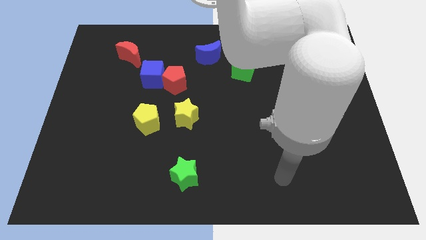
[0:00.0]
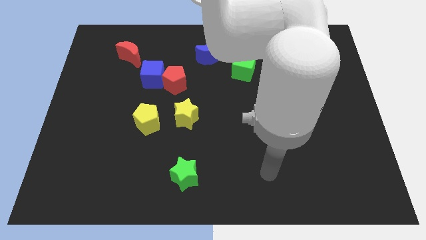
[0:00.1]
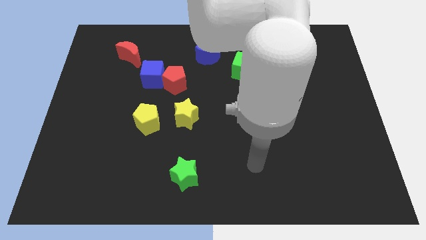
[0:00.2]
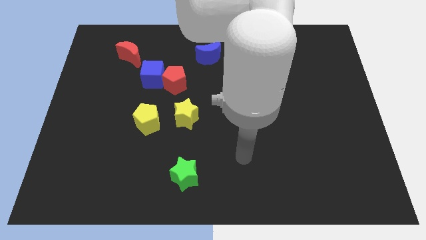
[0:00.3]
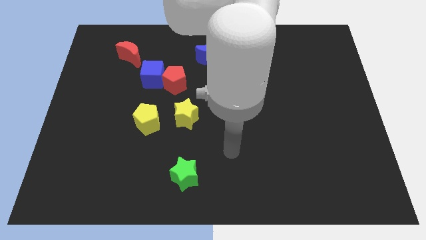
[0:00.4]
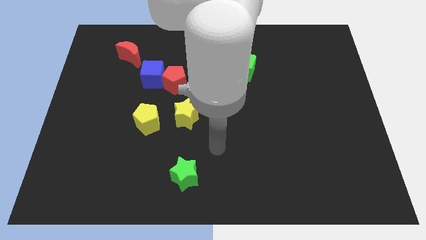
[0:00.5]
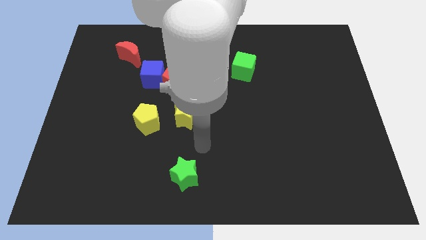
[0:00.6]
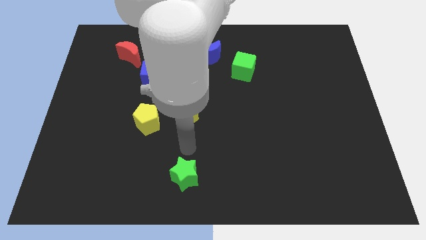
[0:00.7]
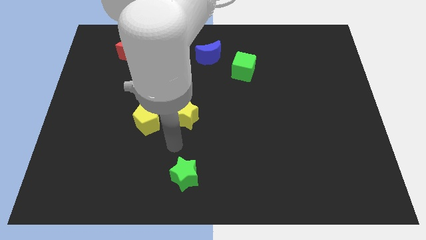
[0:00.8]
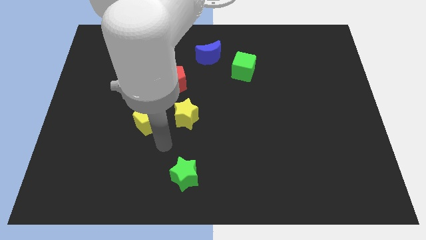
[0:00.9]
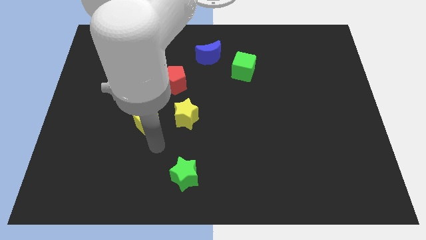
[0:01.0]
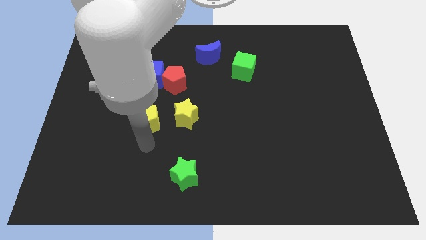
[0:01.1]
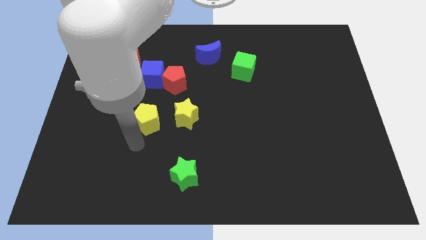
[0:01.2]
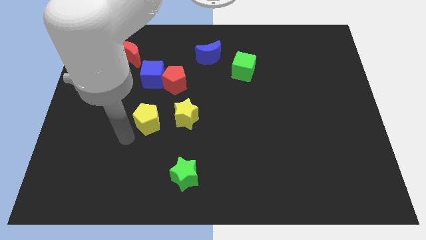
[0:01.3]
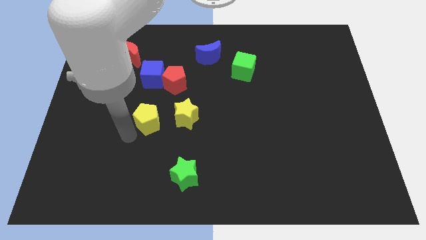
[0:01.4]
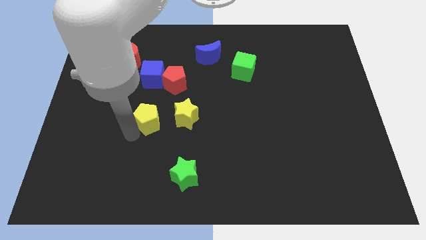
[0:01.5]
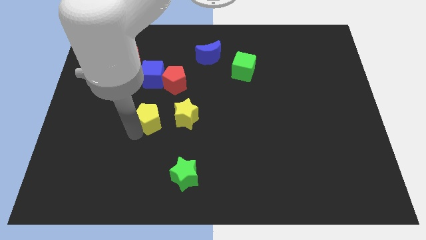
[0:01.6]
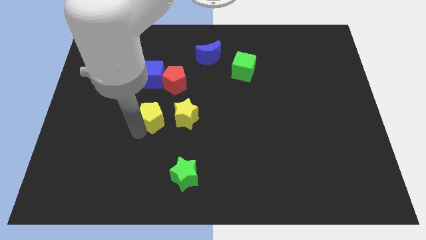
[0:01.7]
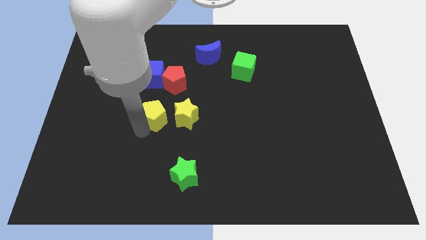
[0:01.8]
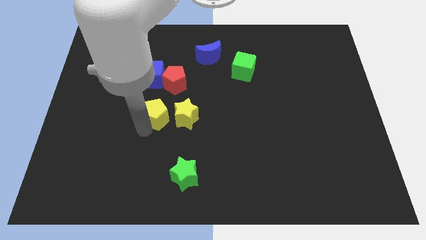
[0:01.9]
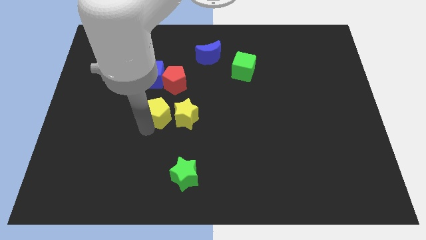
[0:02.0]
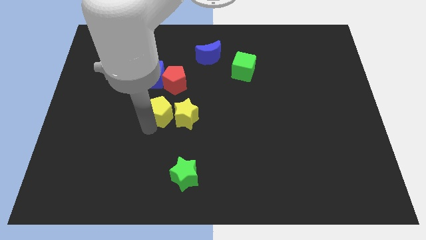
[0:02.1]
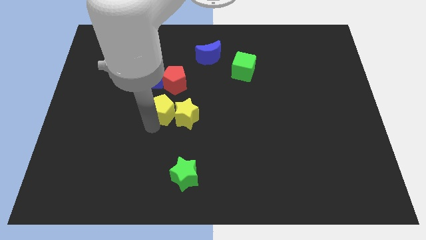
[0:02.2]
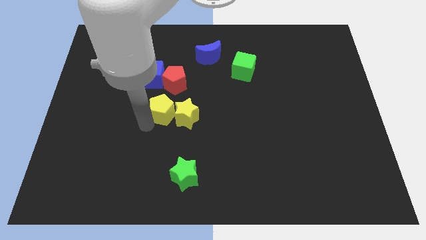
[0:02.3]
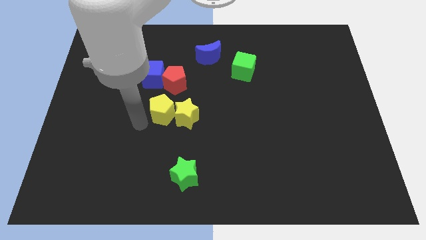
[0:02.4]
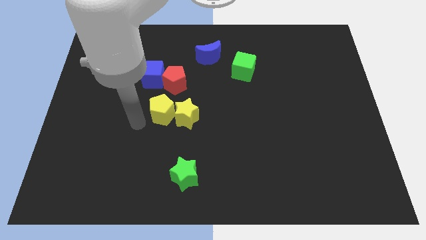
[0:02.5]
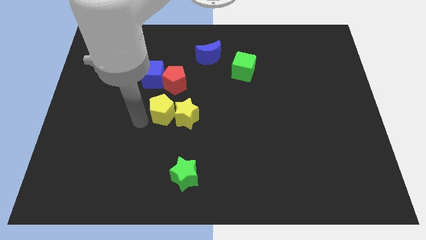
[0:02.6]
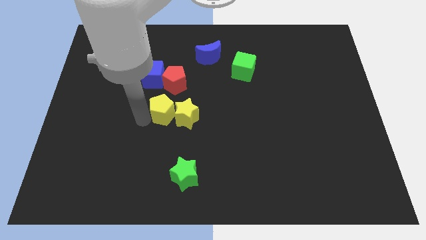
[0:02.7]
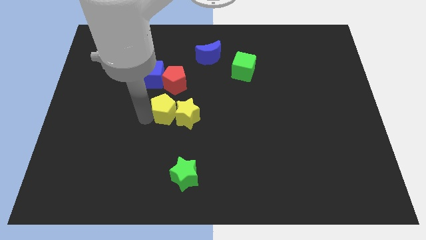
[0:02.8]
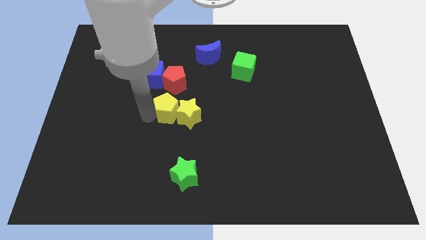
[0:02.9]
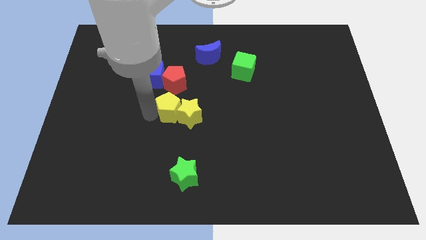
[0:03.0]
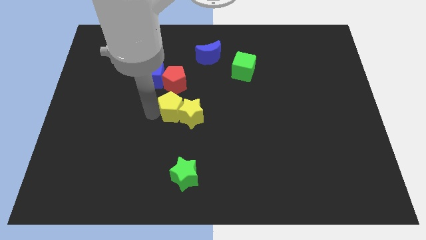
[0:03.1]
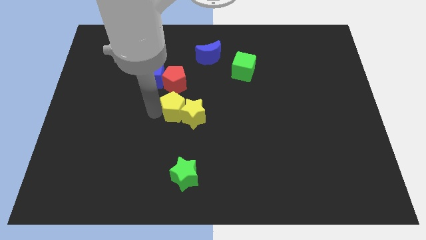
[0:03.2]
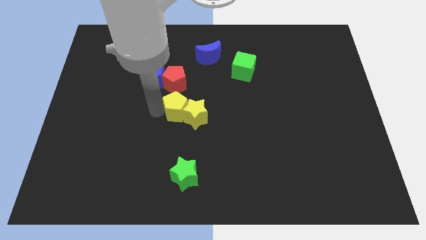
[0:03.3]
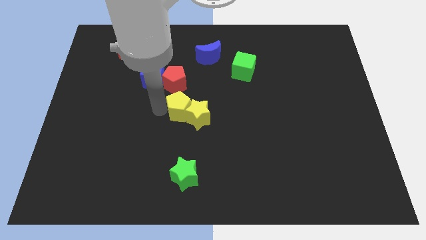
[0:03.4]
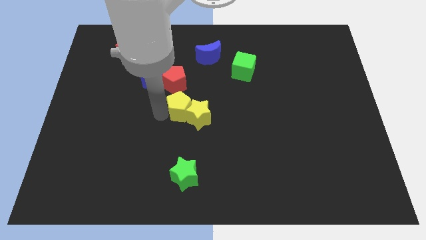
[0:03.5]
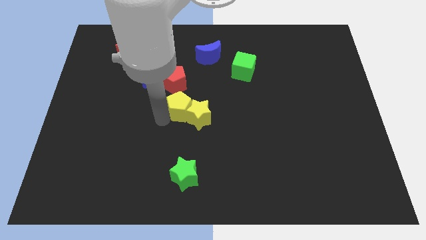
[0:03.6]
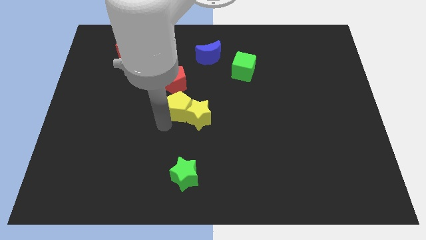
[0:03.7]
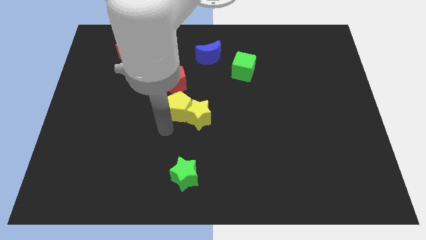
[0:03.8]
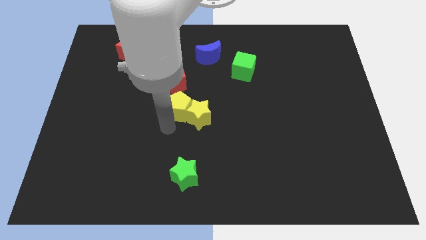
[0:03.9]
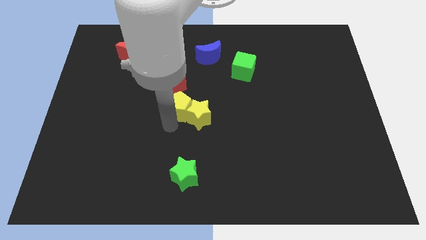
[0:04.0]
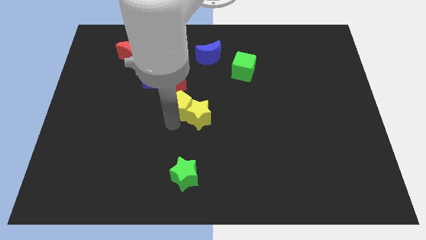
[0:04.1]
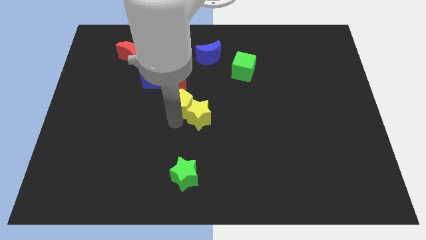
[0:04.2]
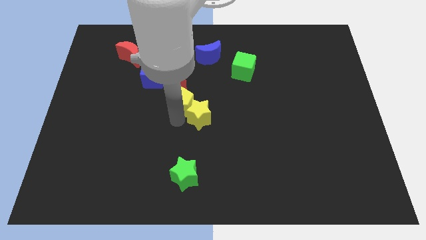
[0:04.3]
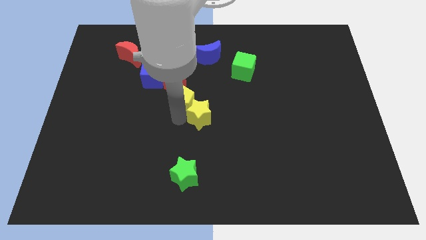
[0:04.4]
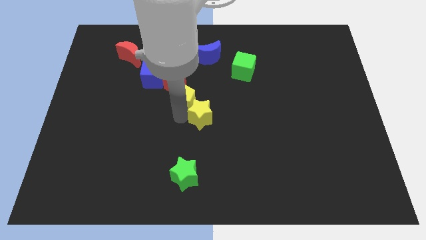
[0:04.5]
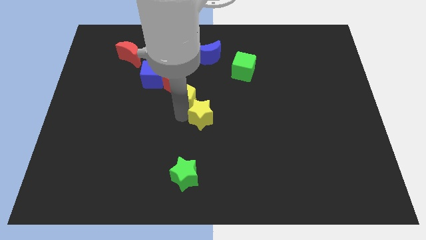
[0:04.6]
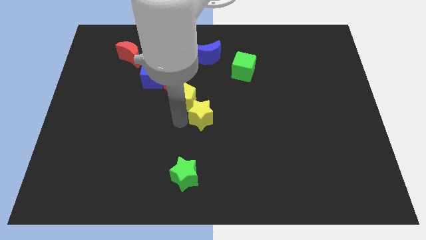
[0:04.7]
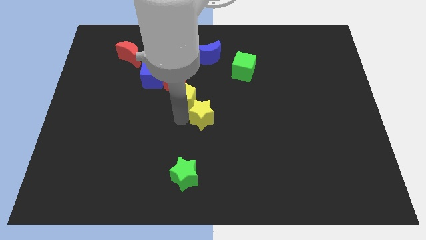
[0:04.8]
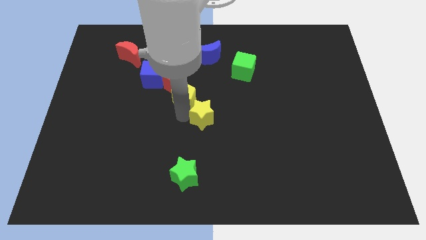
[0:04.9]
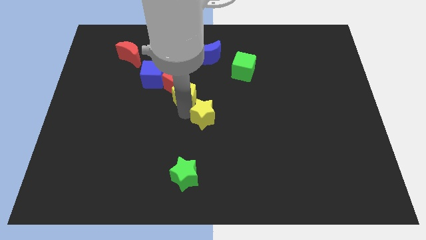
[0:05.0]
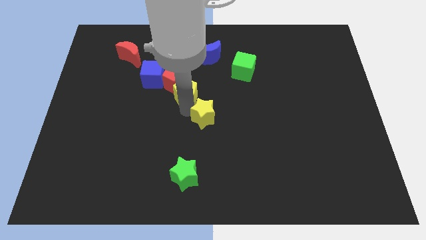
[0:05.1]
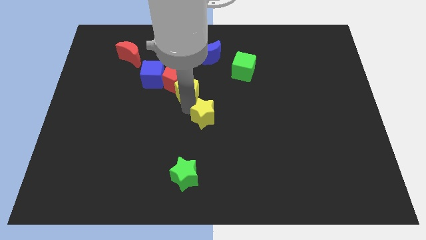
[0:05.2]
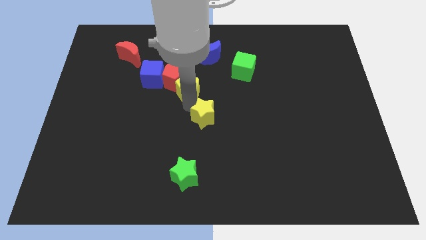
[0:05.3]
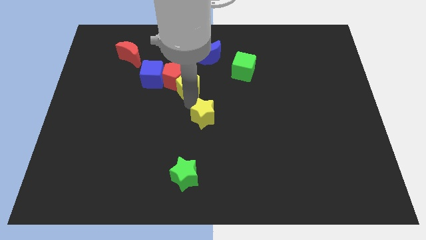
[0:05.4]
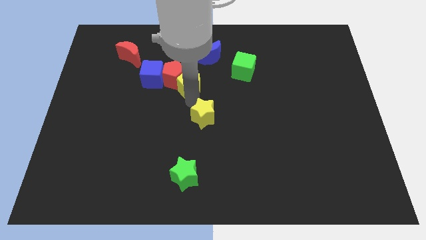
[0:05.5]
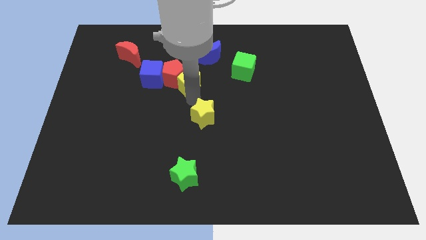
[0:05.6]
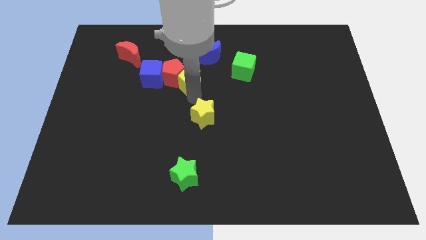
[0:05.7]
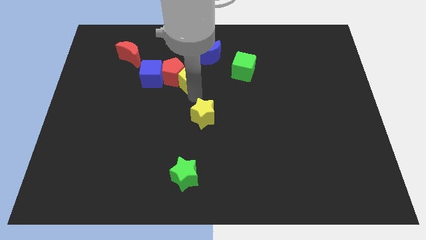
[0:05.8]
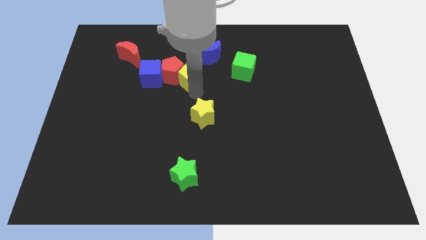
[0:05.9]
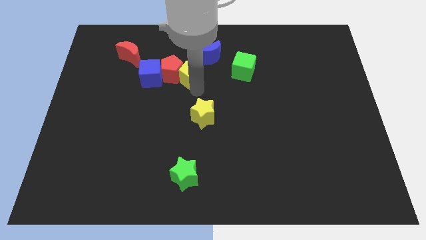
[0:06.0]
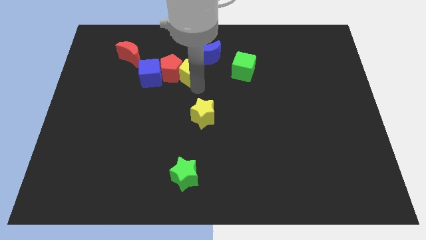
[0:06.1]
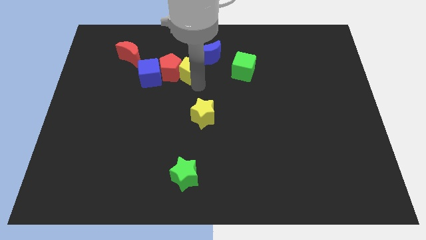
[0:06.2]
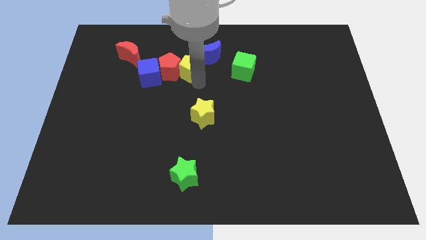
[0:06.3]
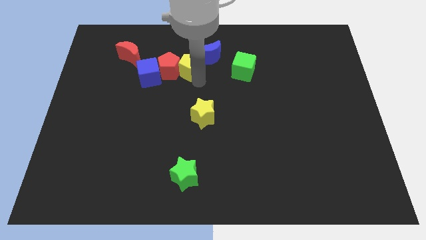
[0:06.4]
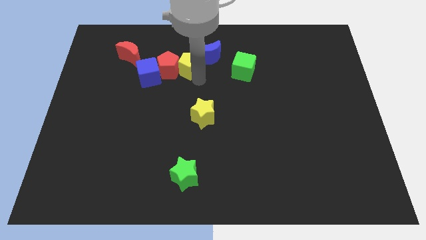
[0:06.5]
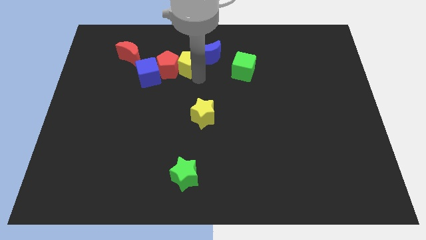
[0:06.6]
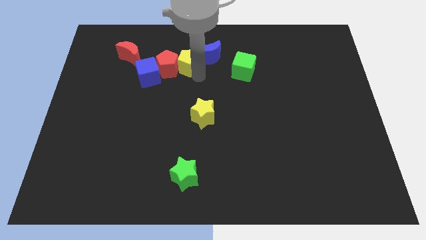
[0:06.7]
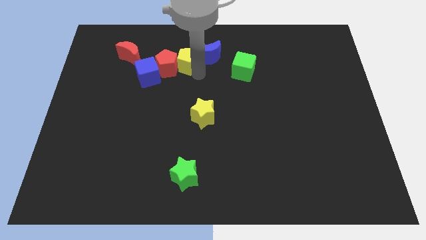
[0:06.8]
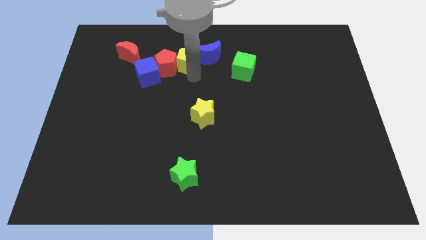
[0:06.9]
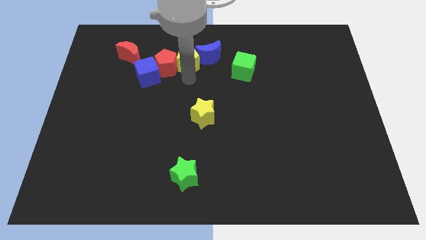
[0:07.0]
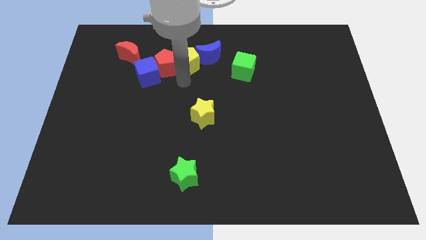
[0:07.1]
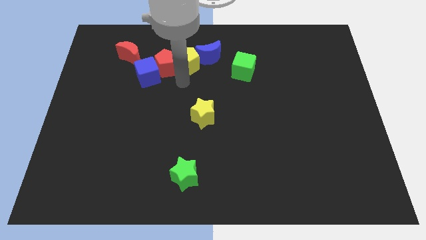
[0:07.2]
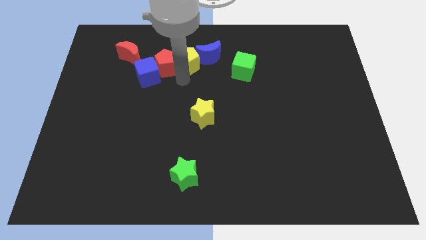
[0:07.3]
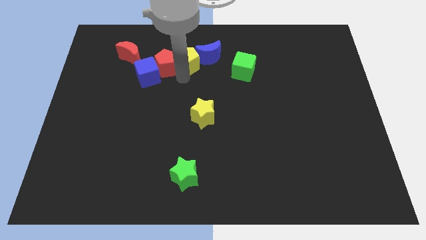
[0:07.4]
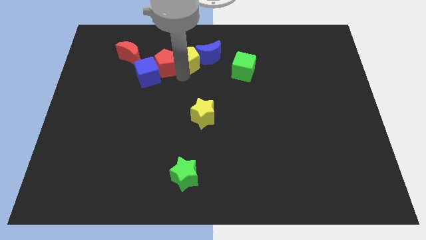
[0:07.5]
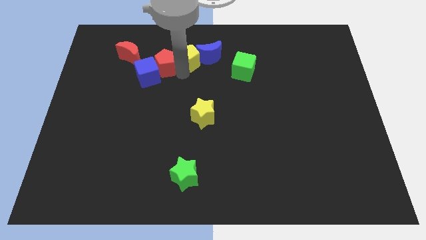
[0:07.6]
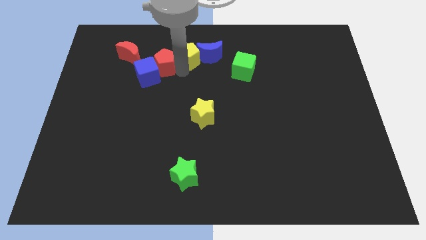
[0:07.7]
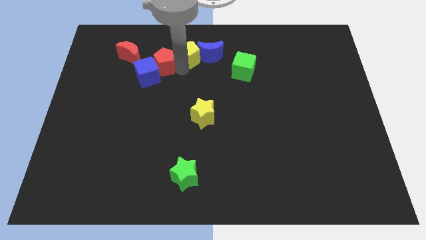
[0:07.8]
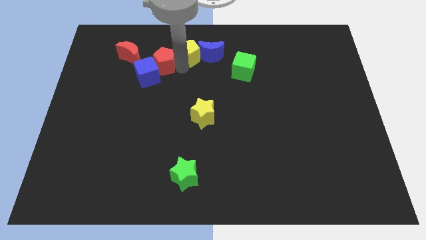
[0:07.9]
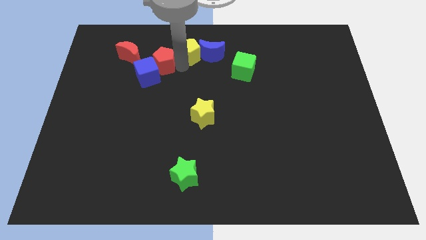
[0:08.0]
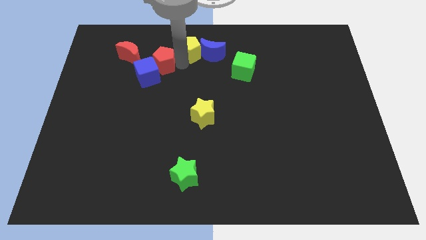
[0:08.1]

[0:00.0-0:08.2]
push the yellow pentagon to the top side
